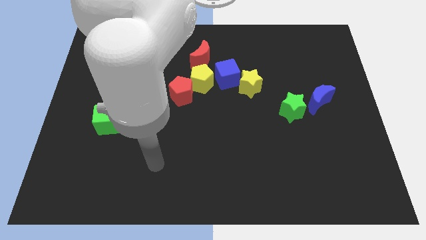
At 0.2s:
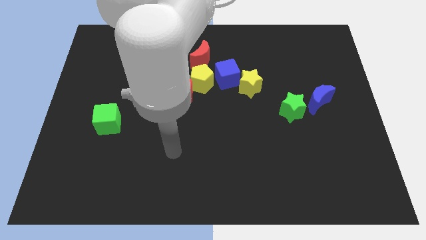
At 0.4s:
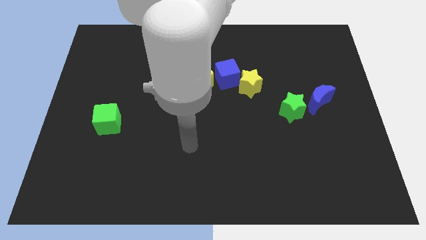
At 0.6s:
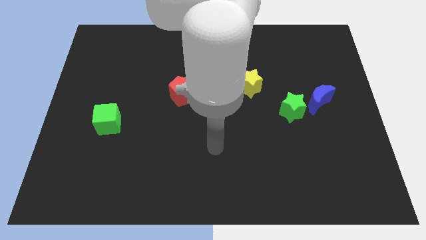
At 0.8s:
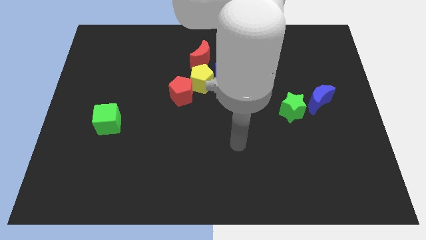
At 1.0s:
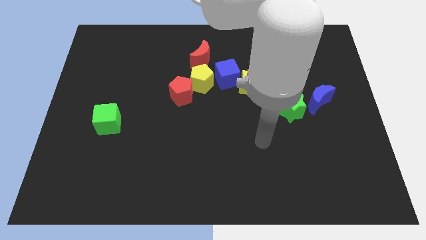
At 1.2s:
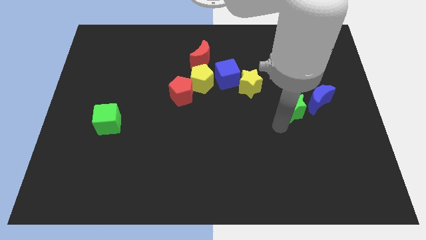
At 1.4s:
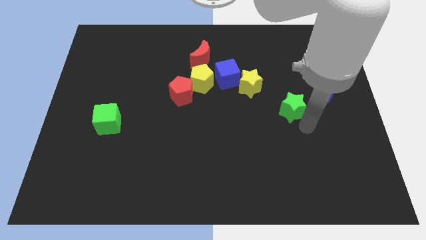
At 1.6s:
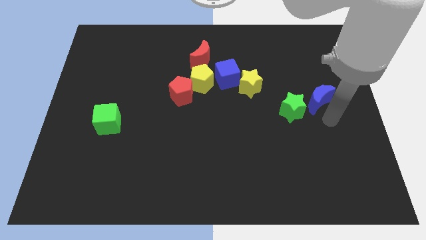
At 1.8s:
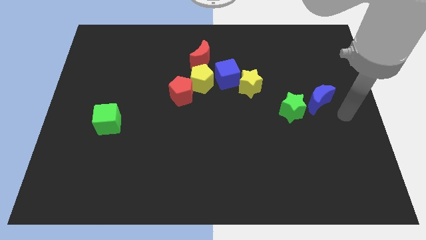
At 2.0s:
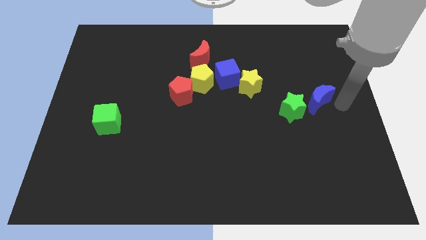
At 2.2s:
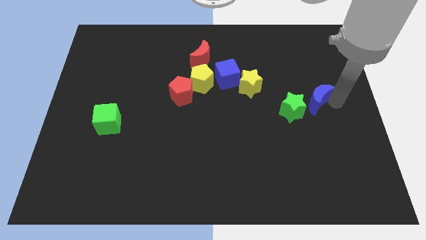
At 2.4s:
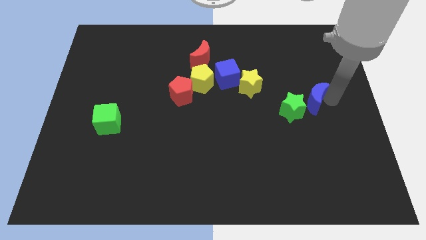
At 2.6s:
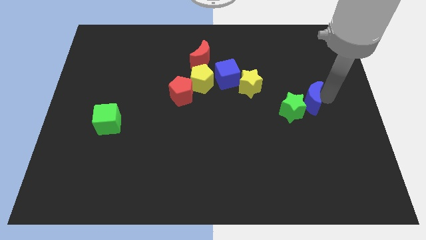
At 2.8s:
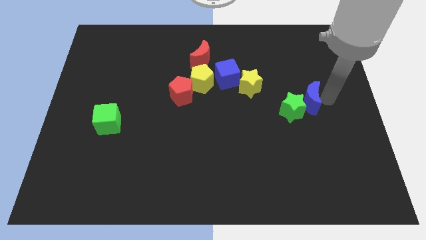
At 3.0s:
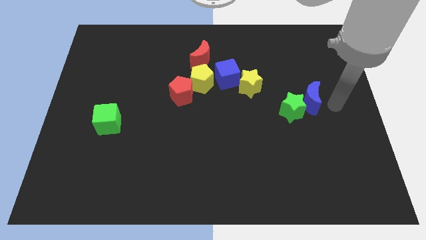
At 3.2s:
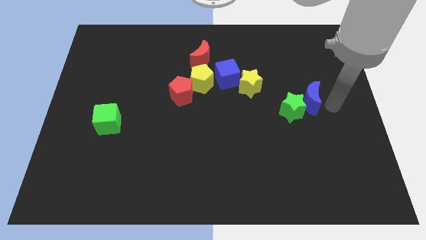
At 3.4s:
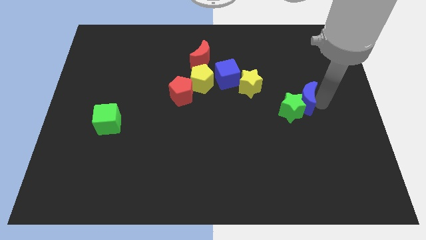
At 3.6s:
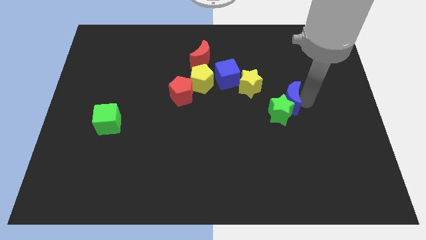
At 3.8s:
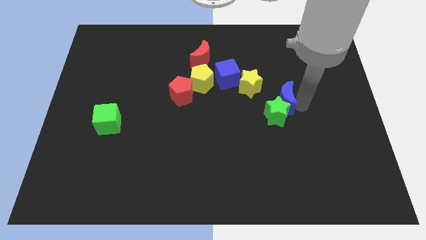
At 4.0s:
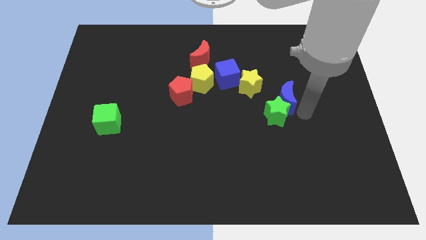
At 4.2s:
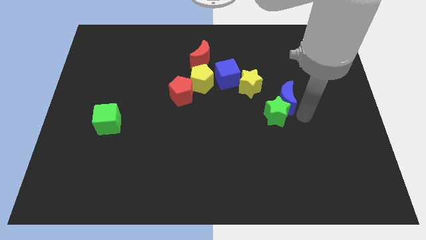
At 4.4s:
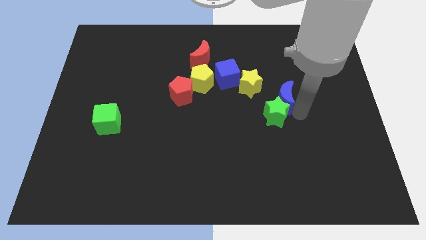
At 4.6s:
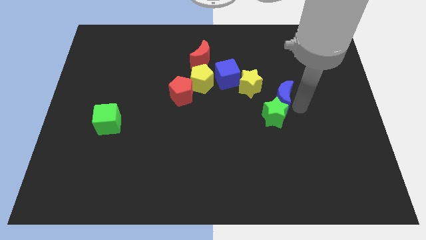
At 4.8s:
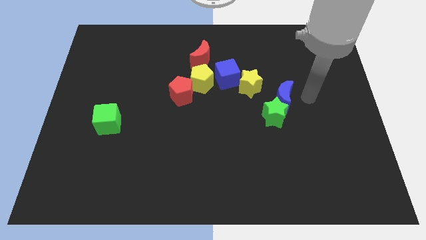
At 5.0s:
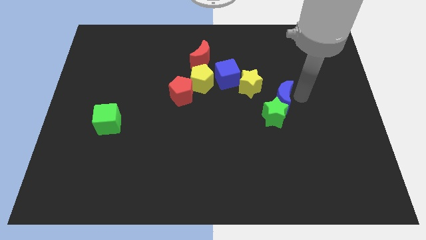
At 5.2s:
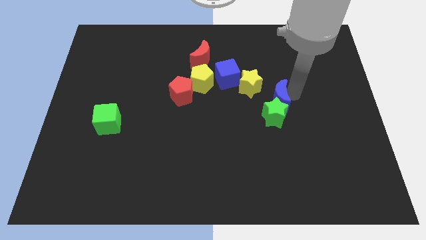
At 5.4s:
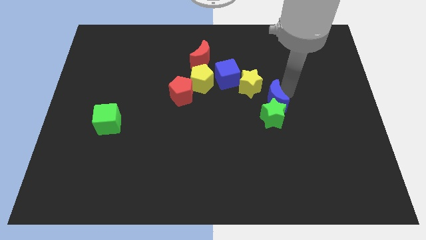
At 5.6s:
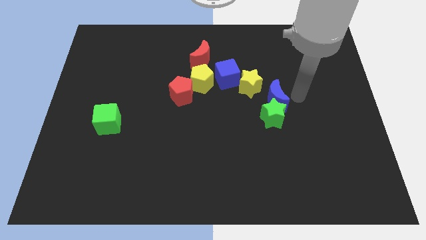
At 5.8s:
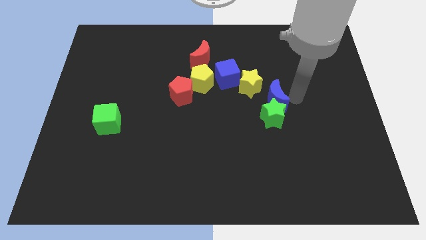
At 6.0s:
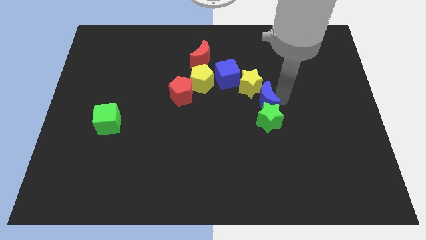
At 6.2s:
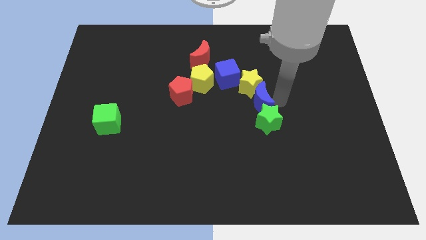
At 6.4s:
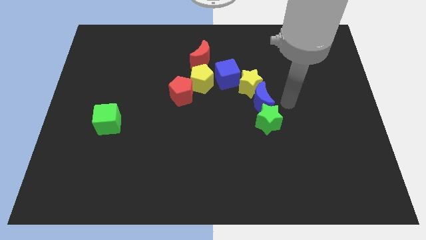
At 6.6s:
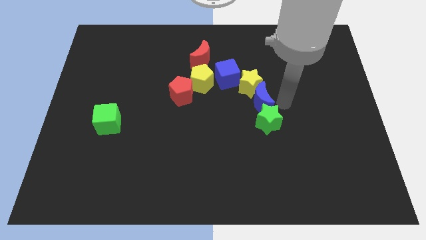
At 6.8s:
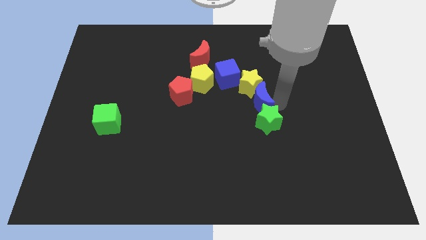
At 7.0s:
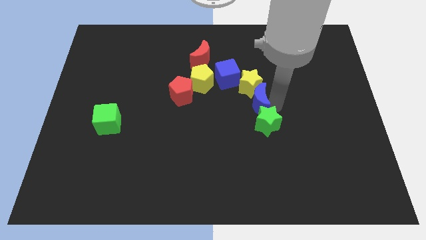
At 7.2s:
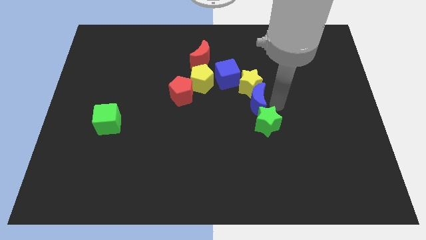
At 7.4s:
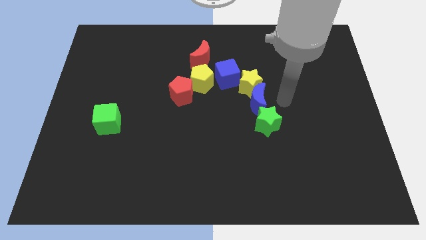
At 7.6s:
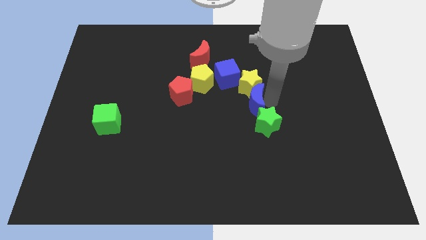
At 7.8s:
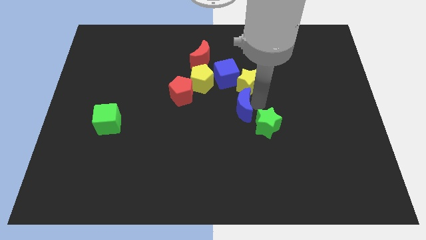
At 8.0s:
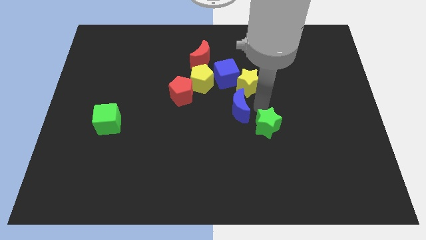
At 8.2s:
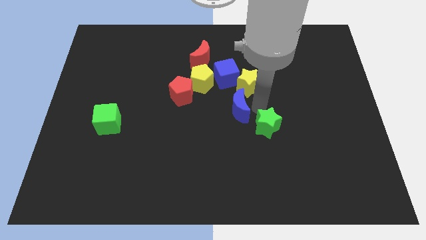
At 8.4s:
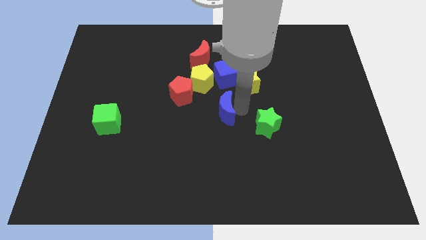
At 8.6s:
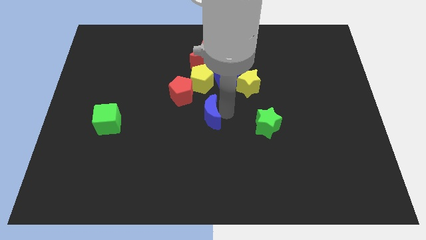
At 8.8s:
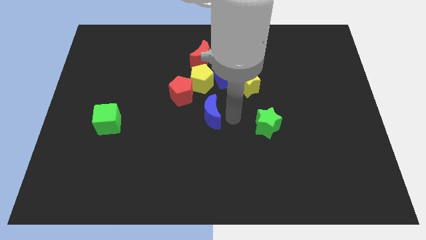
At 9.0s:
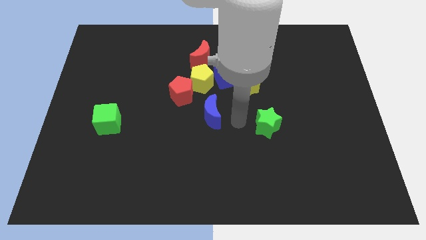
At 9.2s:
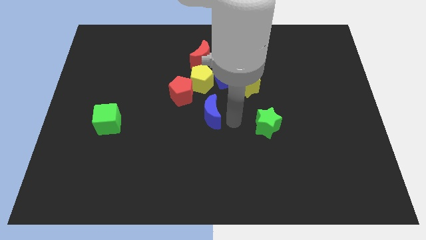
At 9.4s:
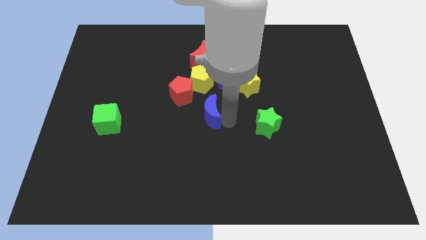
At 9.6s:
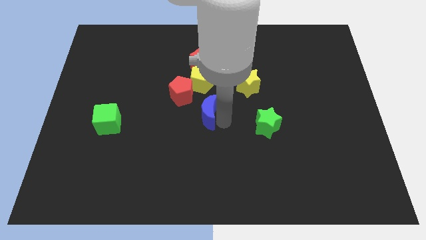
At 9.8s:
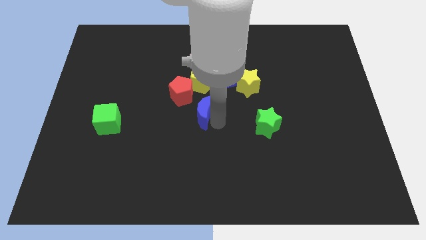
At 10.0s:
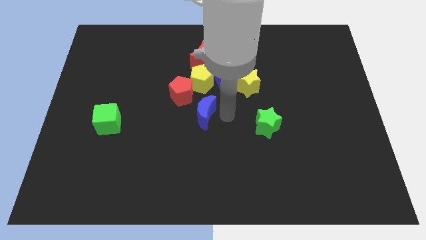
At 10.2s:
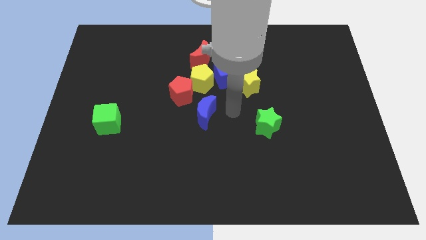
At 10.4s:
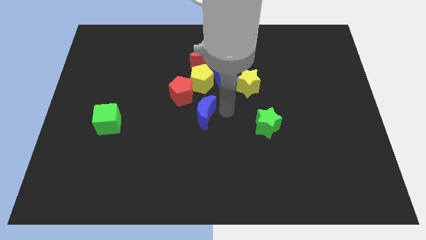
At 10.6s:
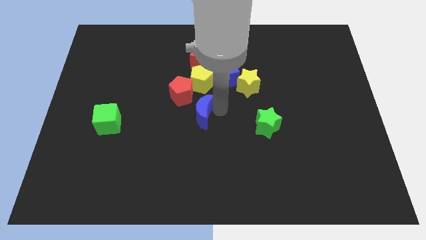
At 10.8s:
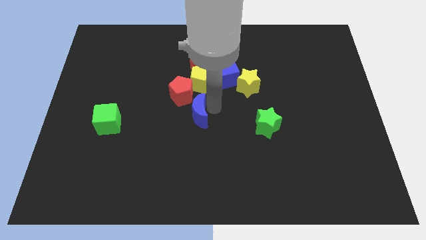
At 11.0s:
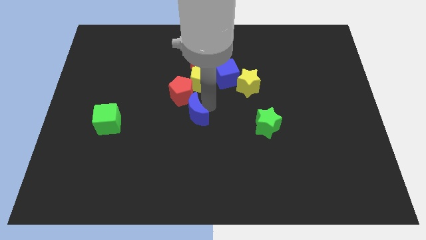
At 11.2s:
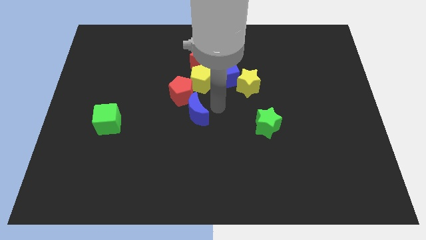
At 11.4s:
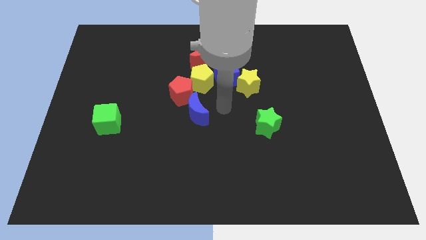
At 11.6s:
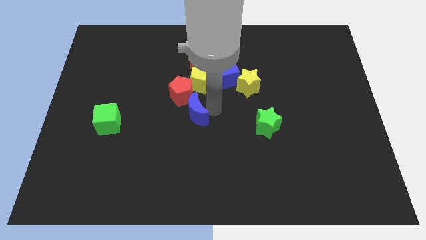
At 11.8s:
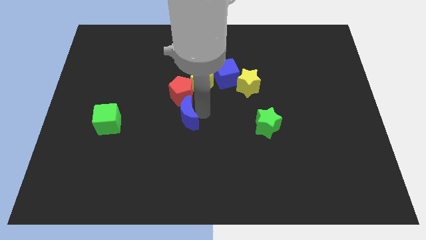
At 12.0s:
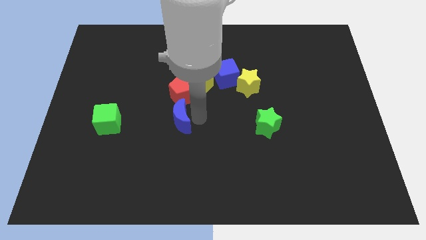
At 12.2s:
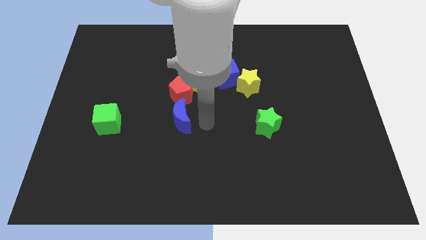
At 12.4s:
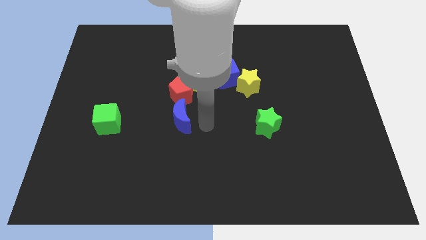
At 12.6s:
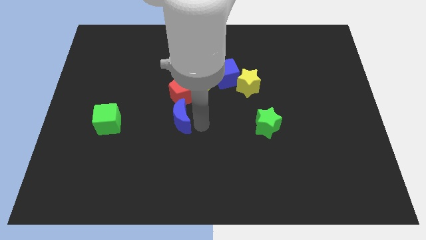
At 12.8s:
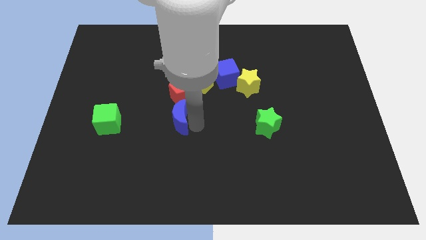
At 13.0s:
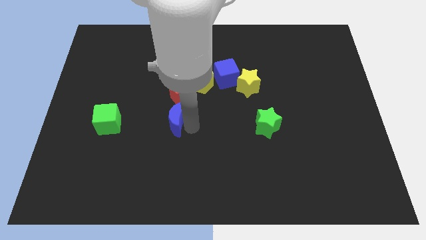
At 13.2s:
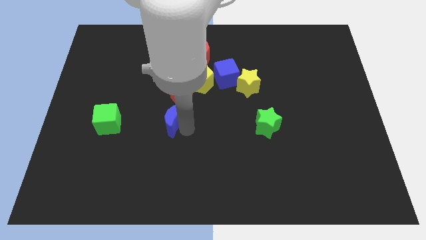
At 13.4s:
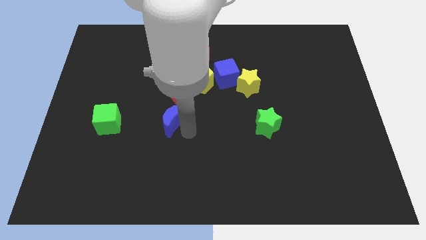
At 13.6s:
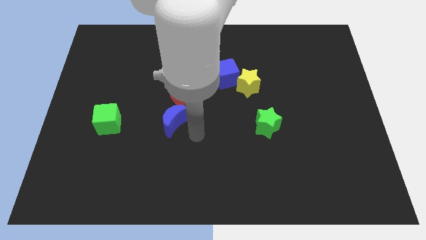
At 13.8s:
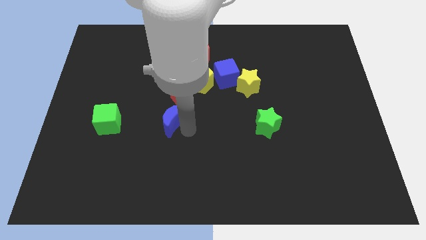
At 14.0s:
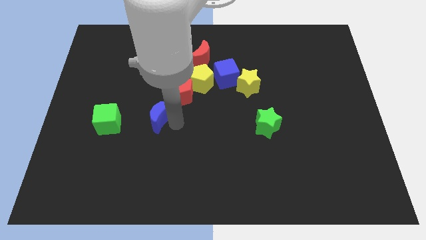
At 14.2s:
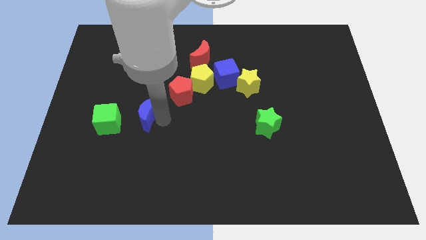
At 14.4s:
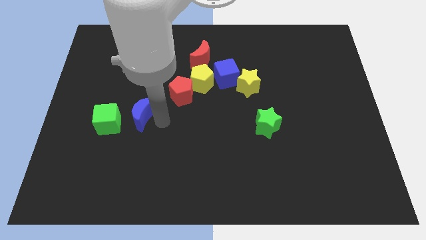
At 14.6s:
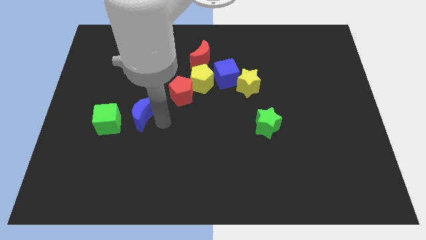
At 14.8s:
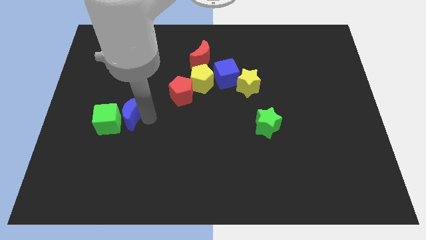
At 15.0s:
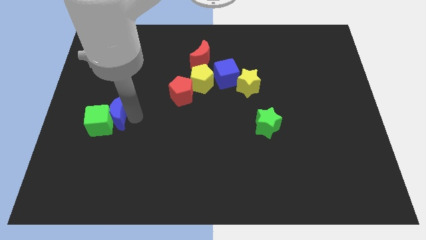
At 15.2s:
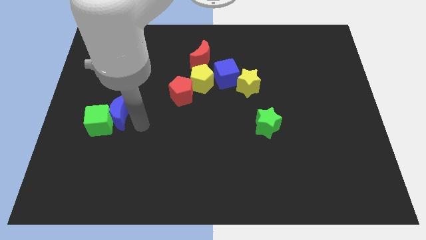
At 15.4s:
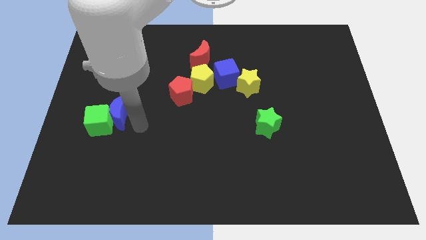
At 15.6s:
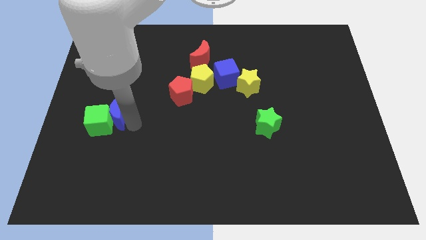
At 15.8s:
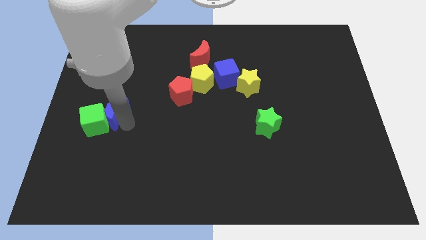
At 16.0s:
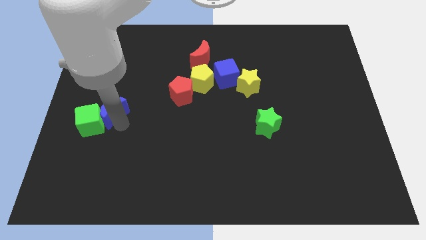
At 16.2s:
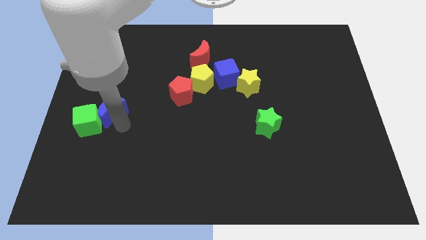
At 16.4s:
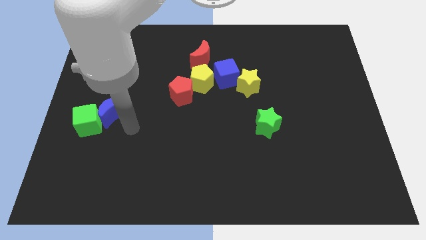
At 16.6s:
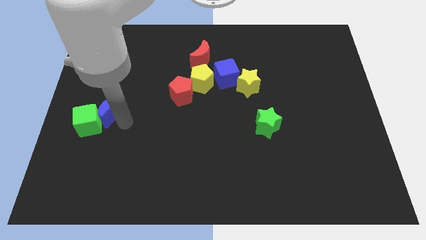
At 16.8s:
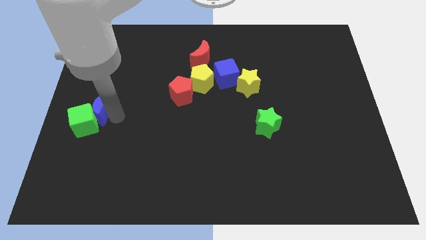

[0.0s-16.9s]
slide the blue moon to the left side
